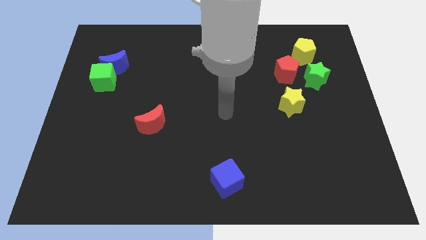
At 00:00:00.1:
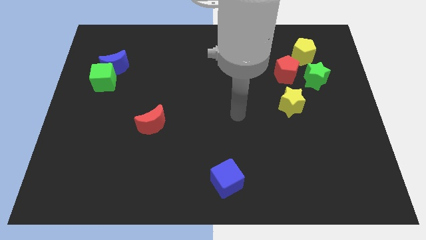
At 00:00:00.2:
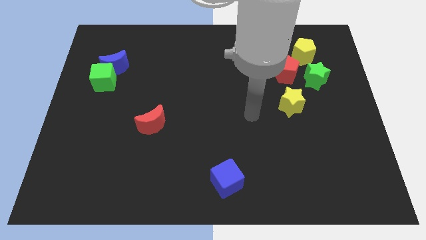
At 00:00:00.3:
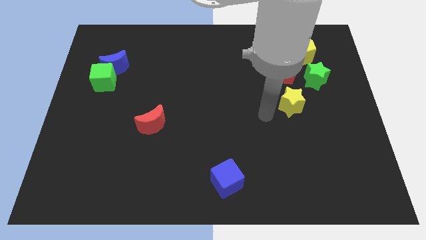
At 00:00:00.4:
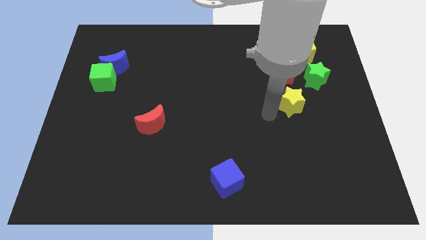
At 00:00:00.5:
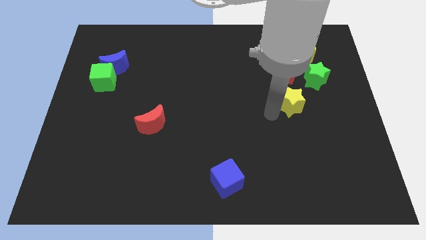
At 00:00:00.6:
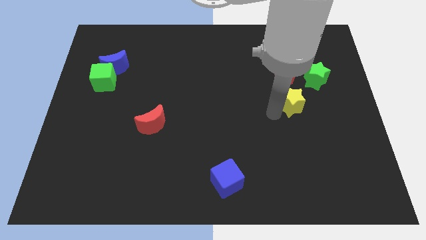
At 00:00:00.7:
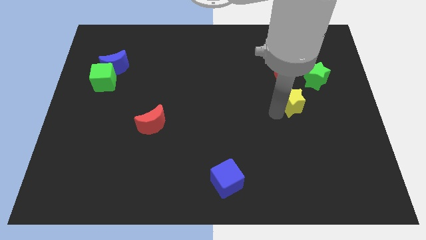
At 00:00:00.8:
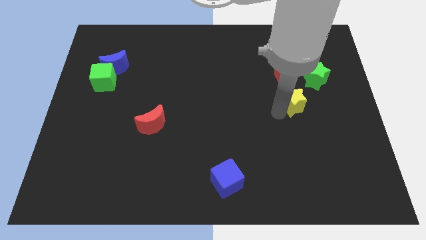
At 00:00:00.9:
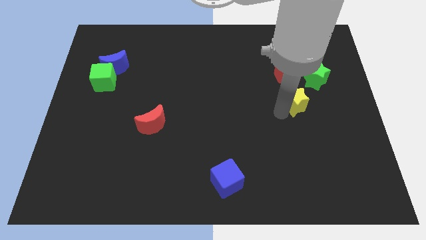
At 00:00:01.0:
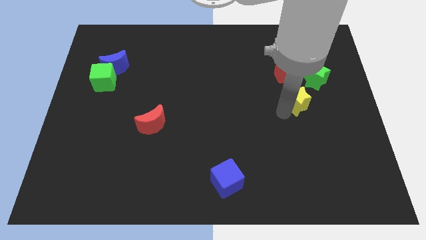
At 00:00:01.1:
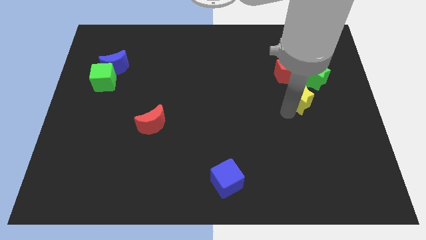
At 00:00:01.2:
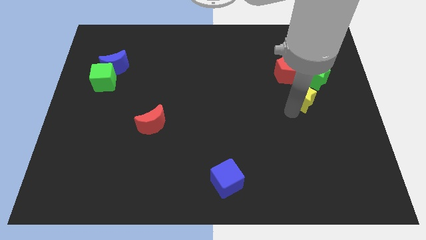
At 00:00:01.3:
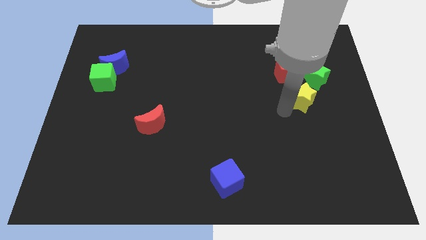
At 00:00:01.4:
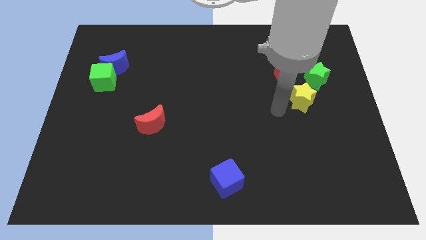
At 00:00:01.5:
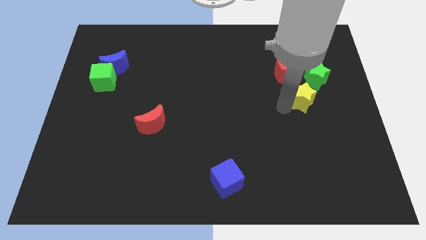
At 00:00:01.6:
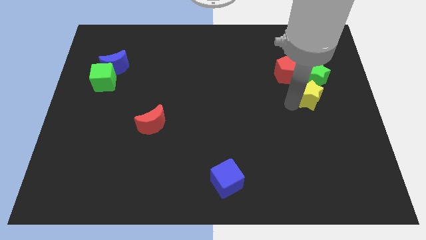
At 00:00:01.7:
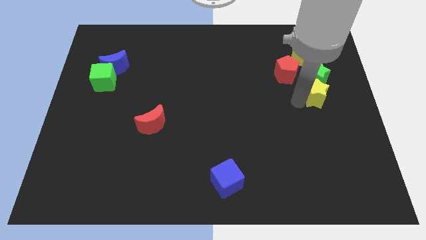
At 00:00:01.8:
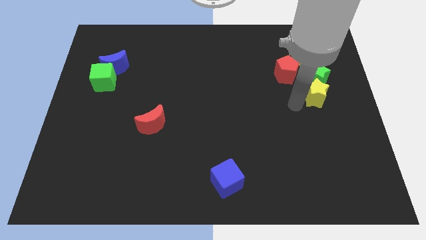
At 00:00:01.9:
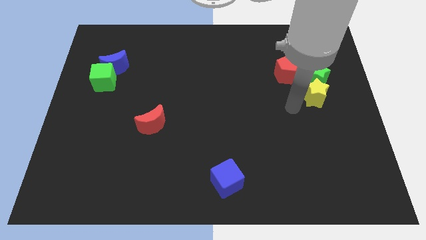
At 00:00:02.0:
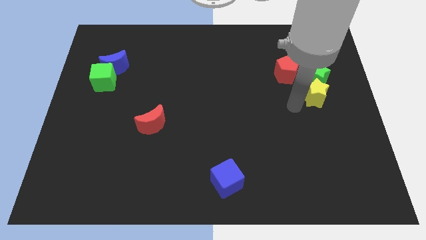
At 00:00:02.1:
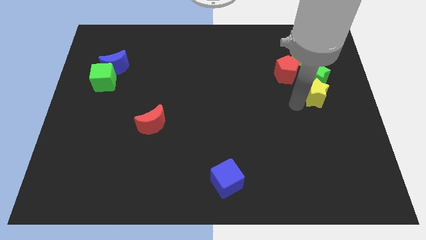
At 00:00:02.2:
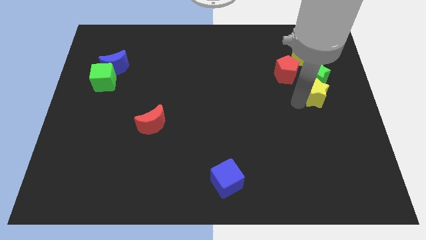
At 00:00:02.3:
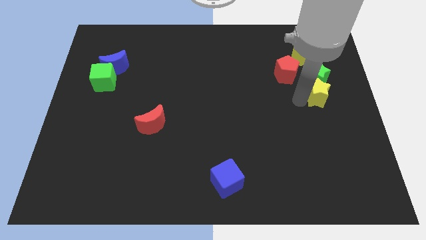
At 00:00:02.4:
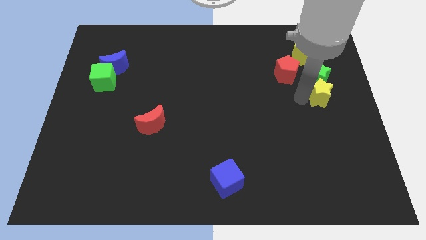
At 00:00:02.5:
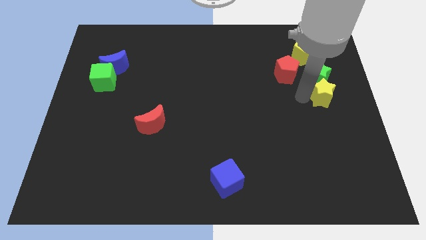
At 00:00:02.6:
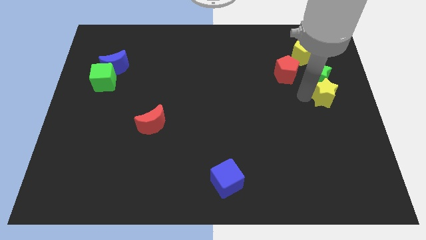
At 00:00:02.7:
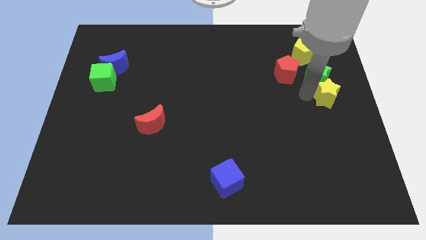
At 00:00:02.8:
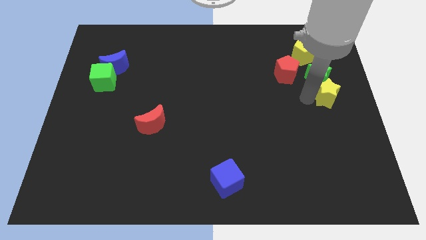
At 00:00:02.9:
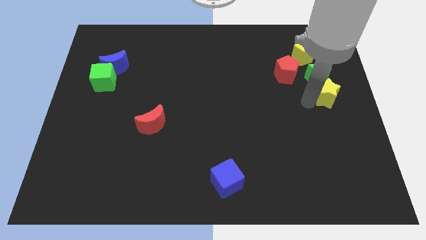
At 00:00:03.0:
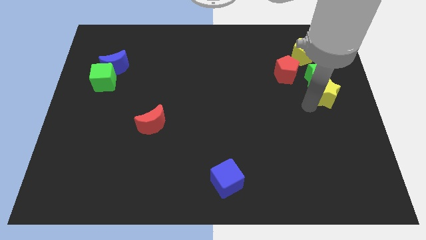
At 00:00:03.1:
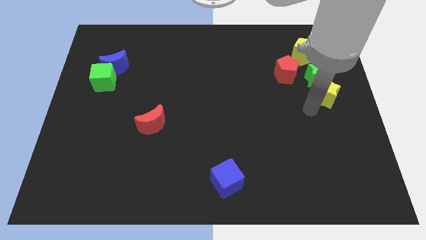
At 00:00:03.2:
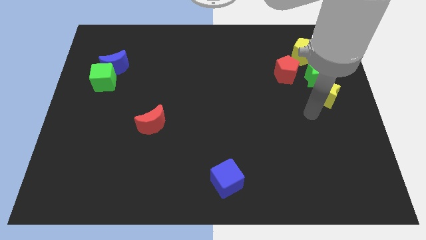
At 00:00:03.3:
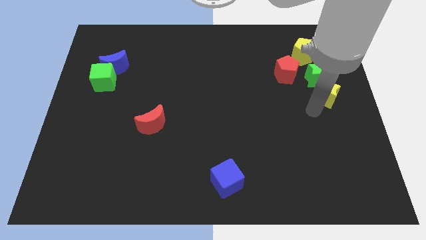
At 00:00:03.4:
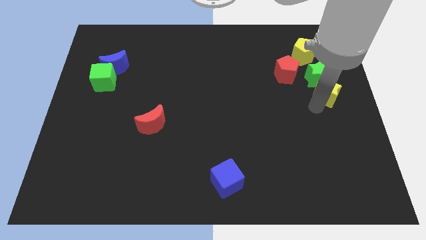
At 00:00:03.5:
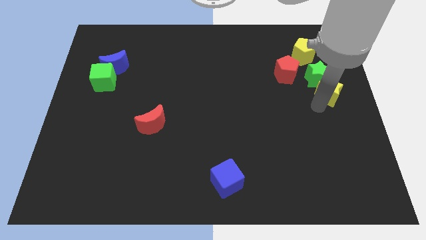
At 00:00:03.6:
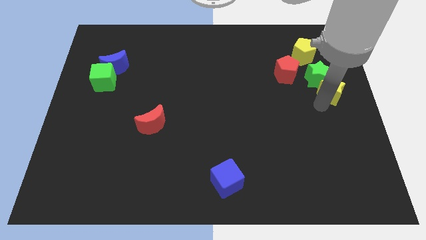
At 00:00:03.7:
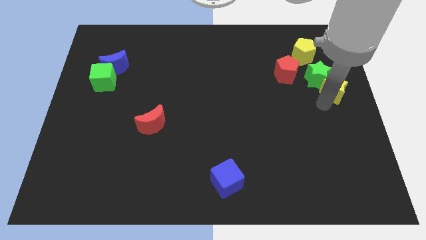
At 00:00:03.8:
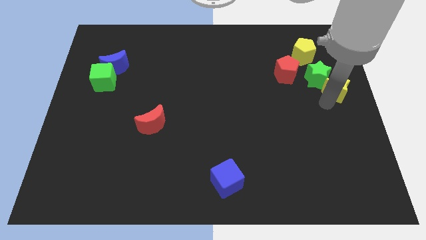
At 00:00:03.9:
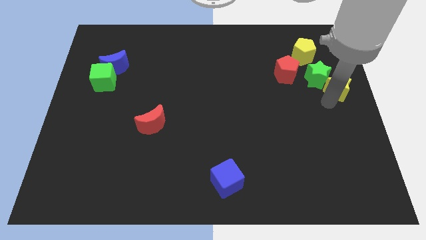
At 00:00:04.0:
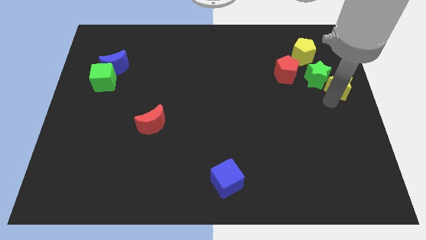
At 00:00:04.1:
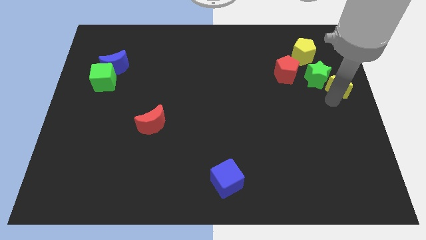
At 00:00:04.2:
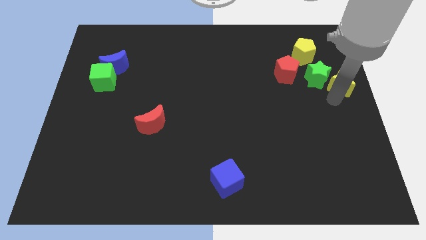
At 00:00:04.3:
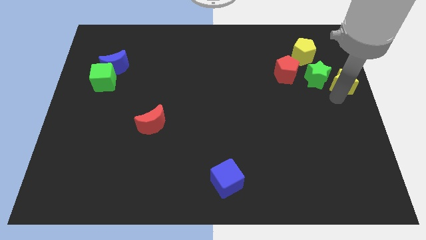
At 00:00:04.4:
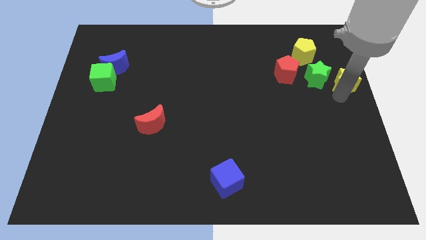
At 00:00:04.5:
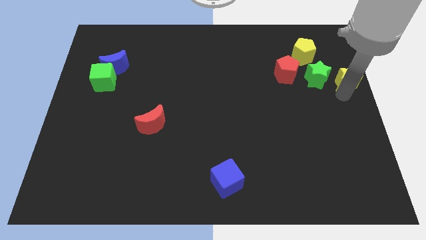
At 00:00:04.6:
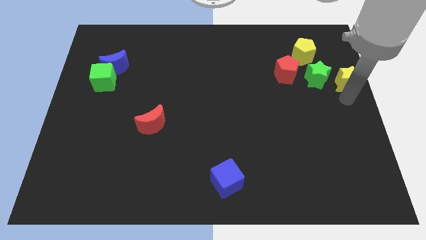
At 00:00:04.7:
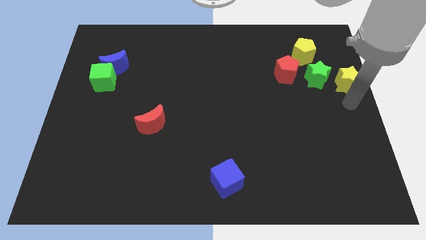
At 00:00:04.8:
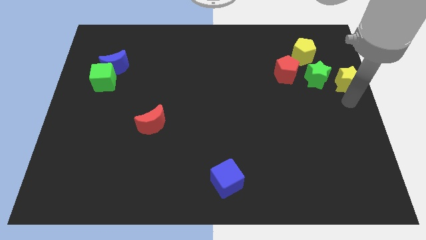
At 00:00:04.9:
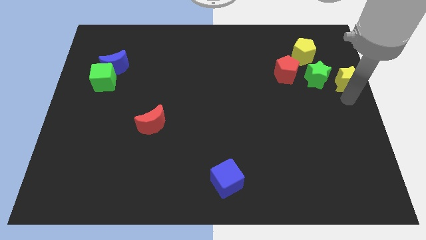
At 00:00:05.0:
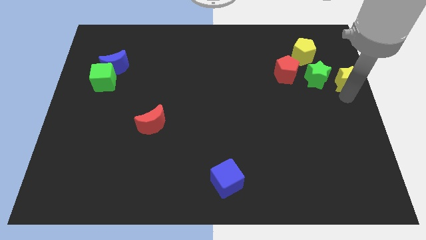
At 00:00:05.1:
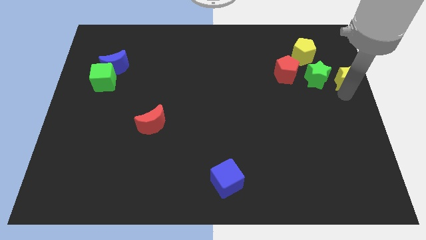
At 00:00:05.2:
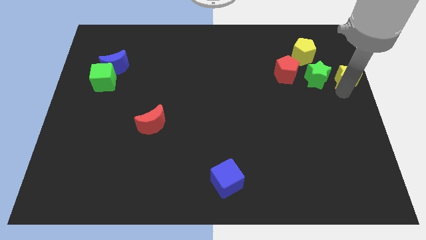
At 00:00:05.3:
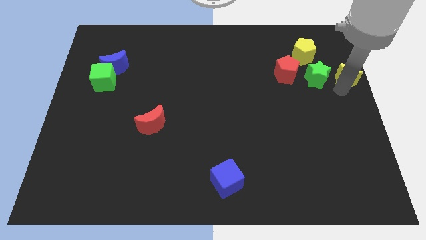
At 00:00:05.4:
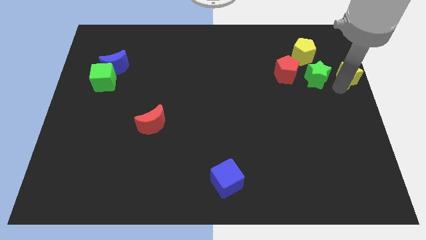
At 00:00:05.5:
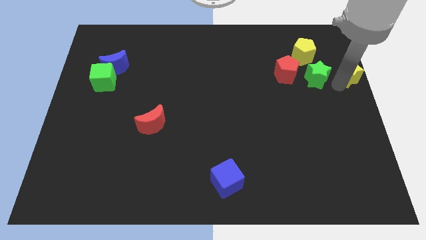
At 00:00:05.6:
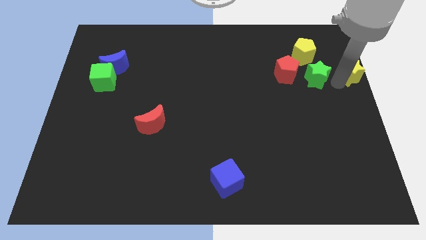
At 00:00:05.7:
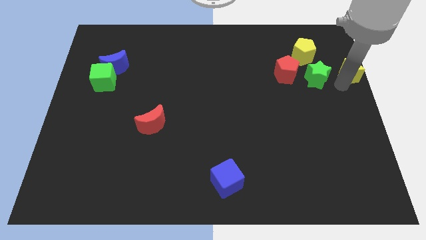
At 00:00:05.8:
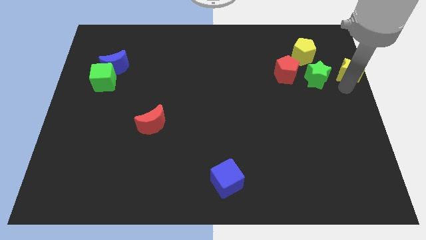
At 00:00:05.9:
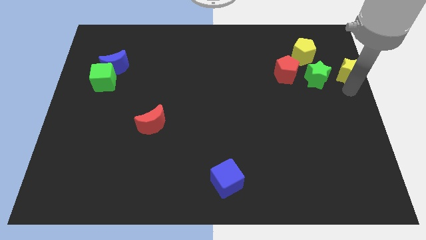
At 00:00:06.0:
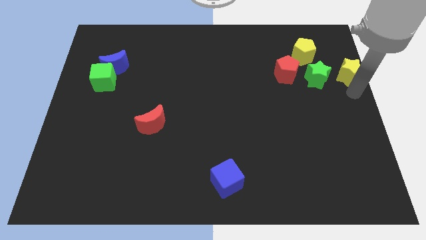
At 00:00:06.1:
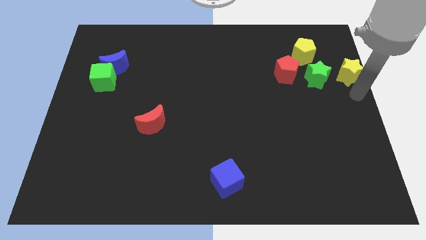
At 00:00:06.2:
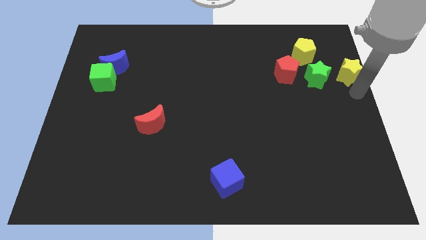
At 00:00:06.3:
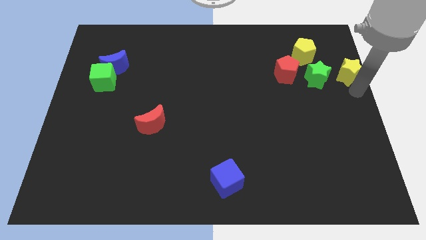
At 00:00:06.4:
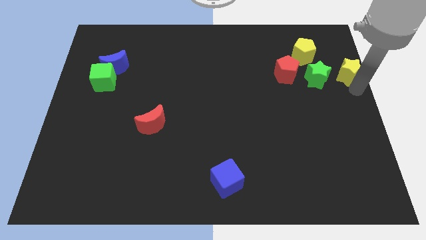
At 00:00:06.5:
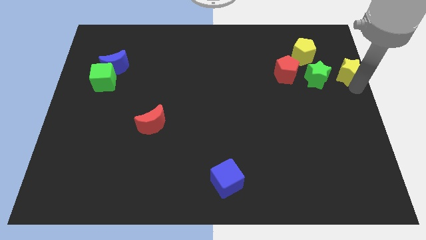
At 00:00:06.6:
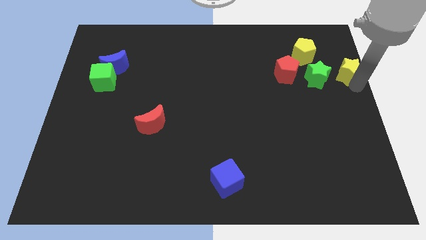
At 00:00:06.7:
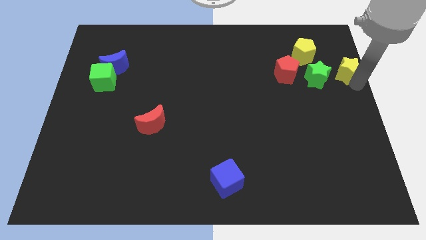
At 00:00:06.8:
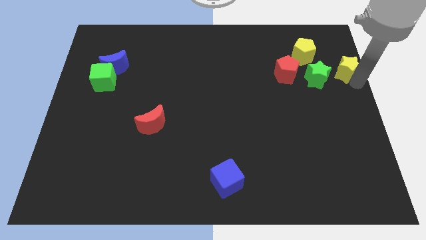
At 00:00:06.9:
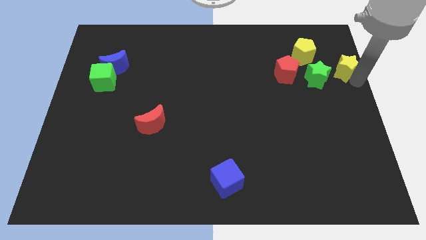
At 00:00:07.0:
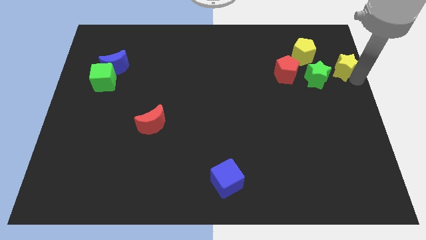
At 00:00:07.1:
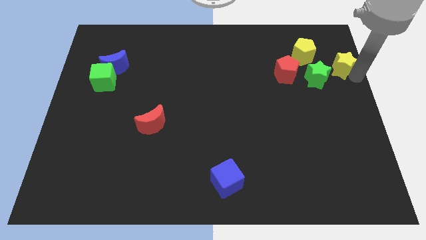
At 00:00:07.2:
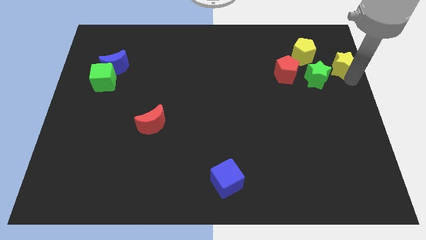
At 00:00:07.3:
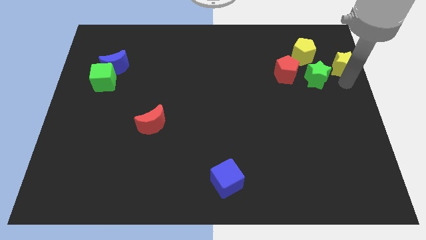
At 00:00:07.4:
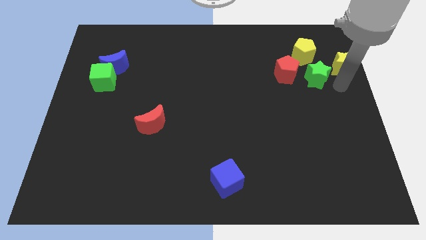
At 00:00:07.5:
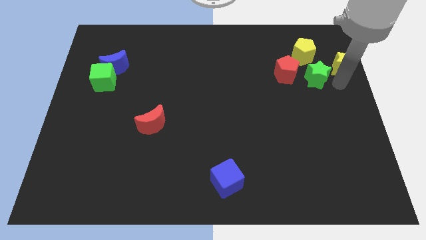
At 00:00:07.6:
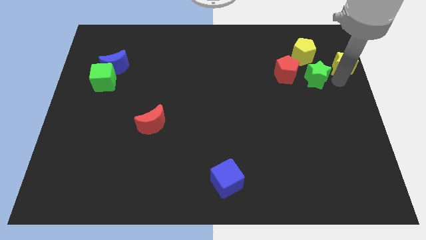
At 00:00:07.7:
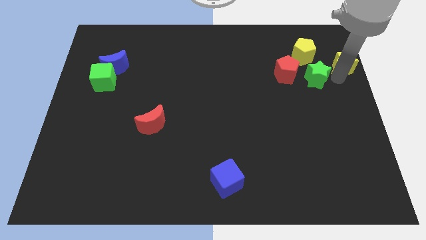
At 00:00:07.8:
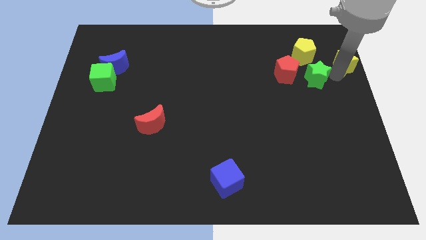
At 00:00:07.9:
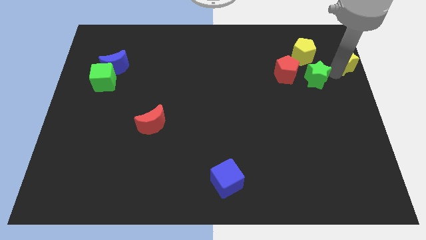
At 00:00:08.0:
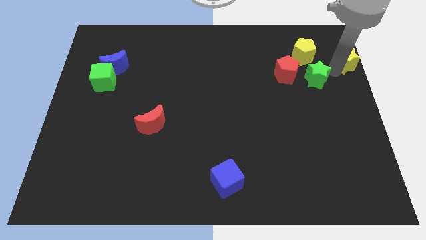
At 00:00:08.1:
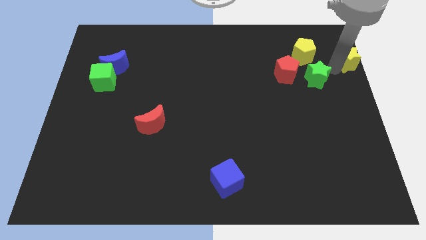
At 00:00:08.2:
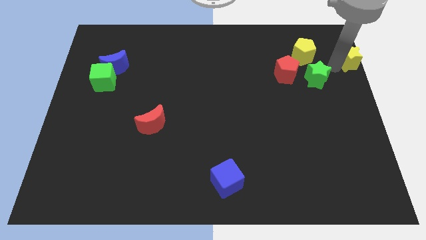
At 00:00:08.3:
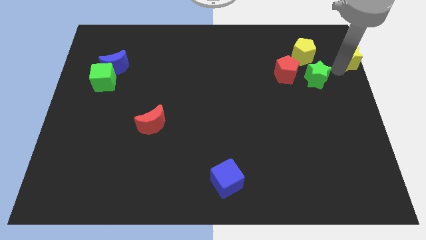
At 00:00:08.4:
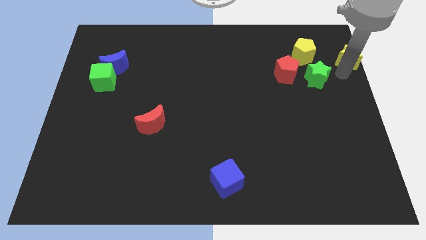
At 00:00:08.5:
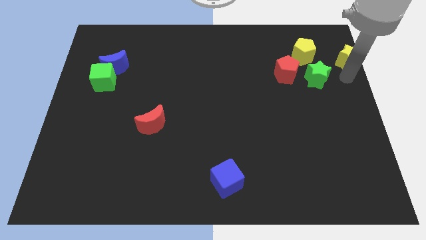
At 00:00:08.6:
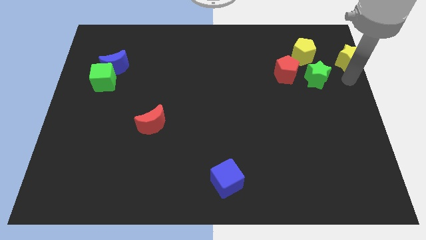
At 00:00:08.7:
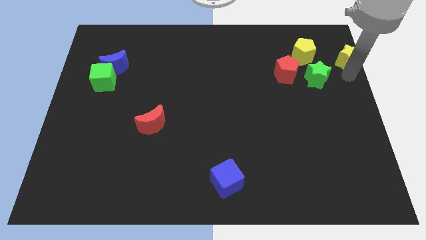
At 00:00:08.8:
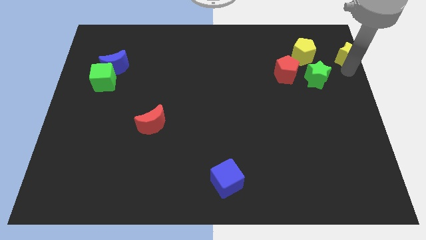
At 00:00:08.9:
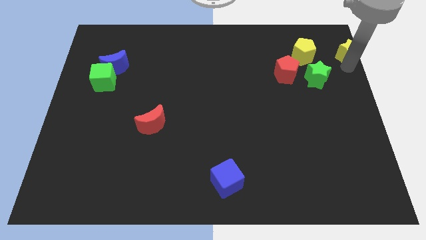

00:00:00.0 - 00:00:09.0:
push the yellow star to the top right corner
